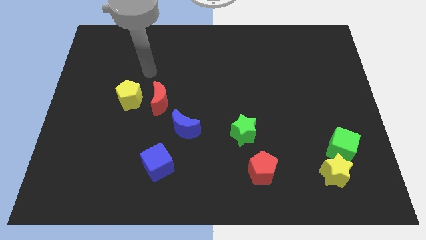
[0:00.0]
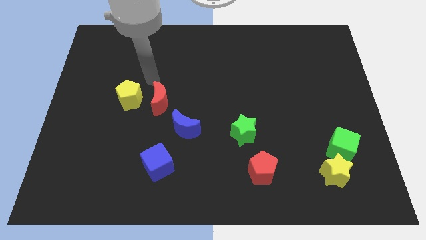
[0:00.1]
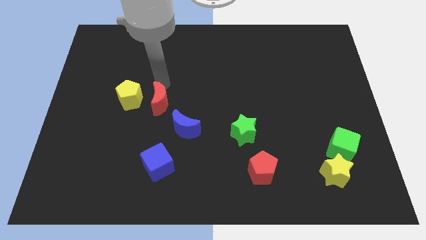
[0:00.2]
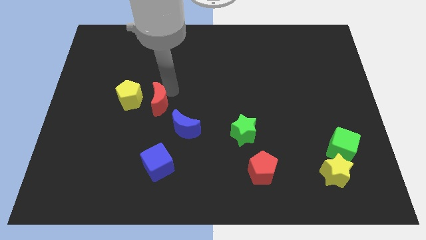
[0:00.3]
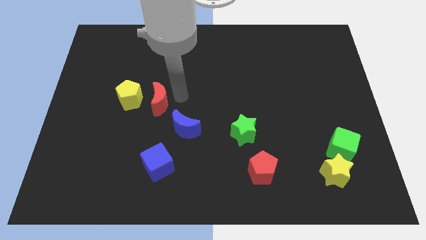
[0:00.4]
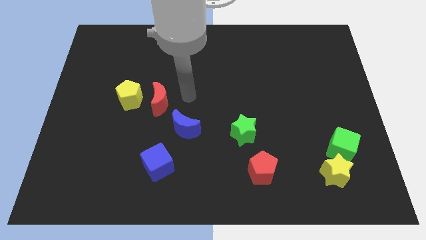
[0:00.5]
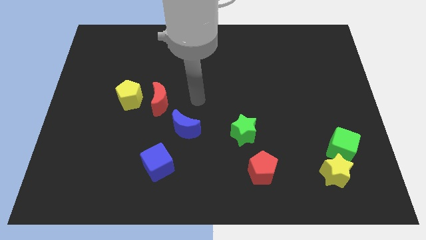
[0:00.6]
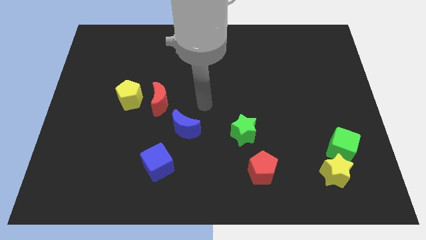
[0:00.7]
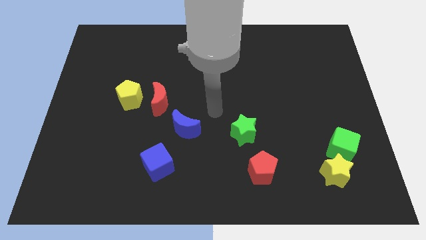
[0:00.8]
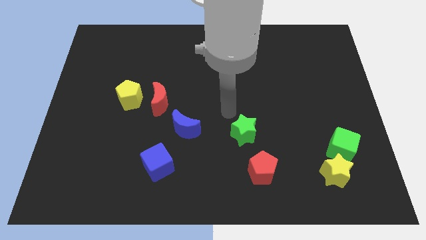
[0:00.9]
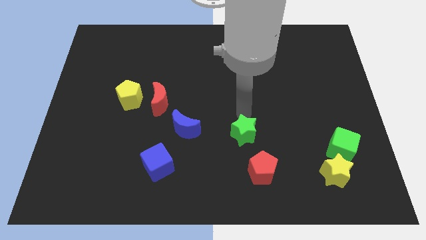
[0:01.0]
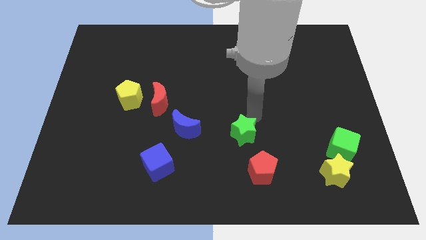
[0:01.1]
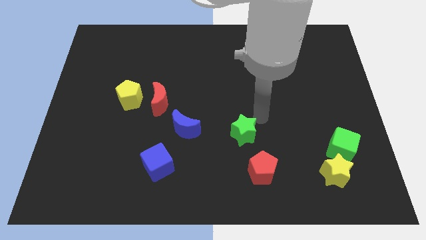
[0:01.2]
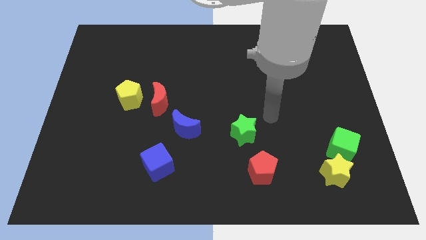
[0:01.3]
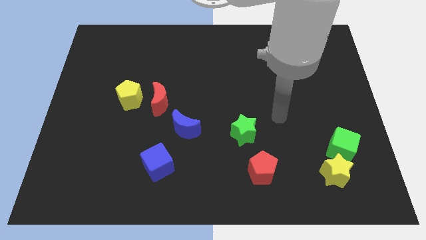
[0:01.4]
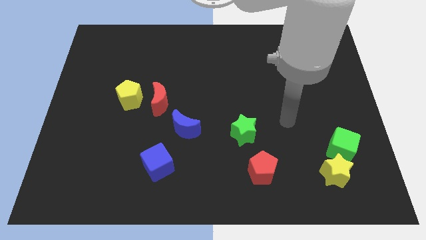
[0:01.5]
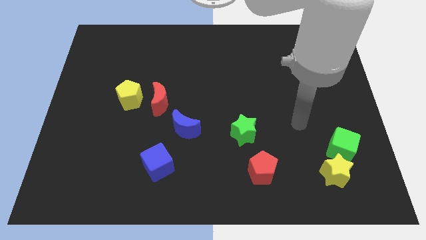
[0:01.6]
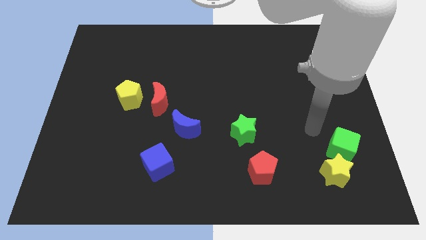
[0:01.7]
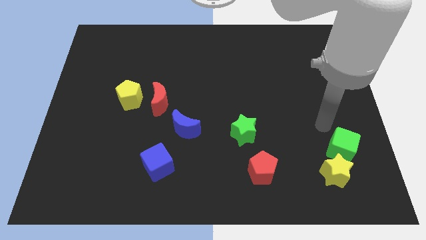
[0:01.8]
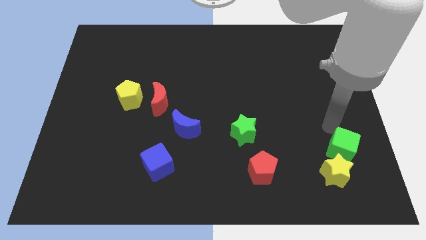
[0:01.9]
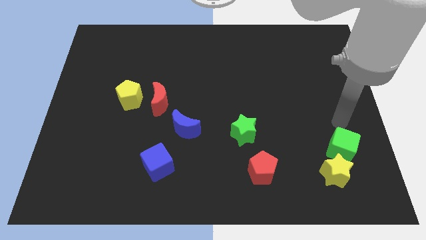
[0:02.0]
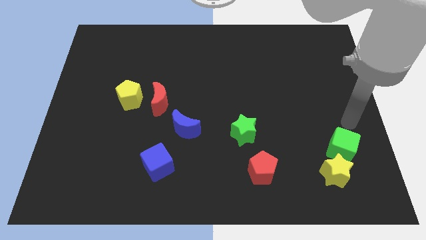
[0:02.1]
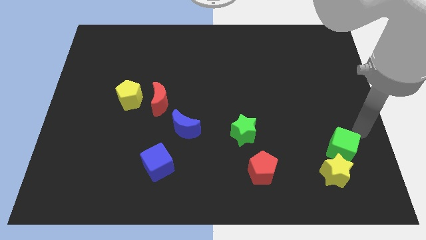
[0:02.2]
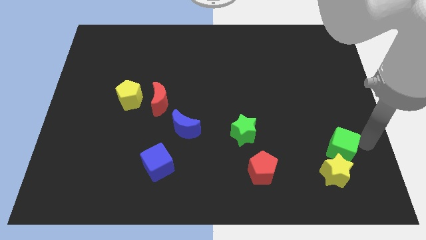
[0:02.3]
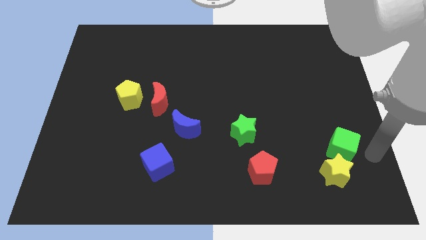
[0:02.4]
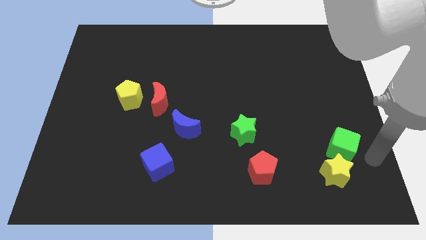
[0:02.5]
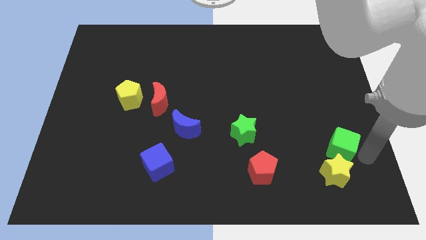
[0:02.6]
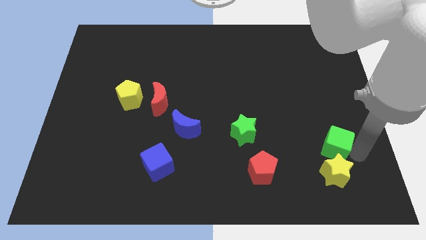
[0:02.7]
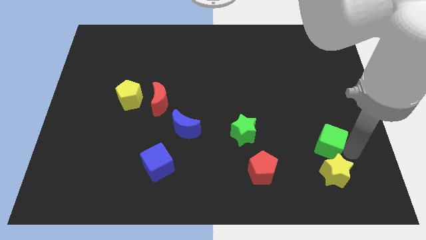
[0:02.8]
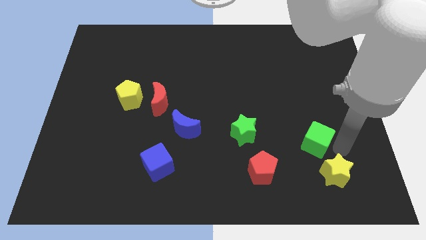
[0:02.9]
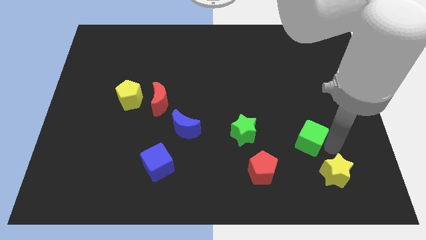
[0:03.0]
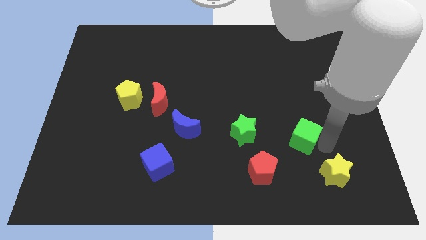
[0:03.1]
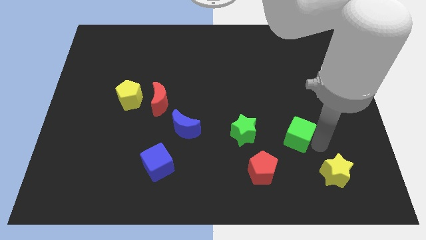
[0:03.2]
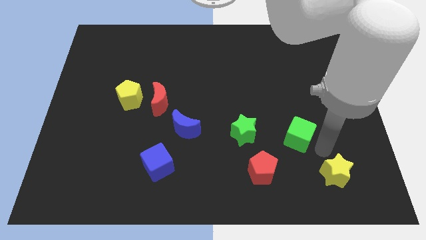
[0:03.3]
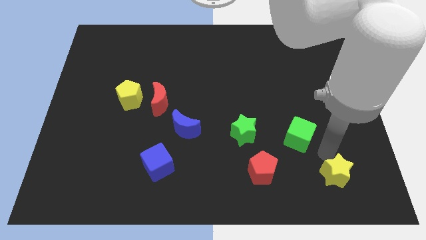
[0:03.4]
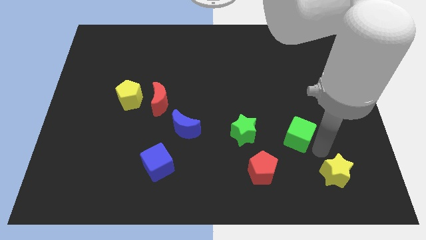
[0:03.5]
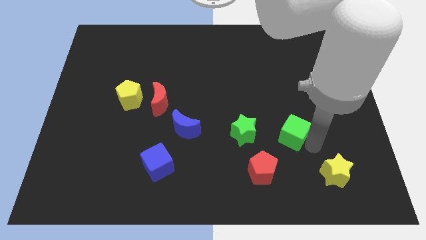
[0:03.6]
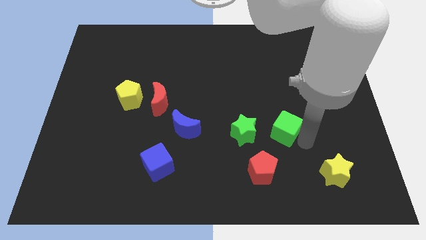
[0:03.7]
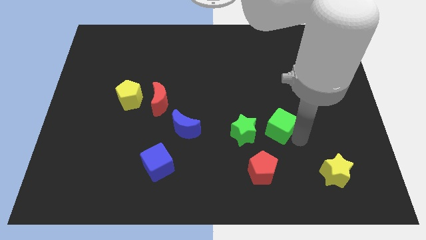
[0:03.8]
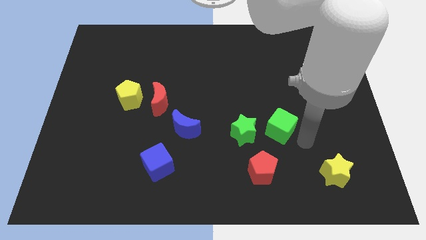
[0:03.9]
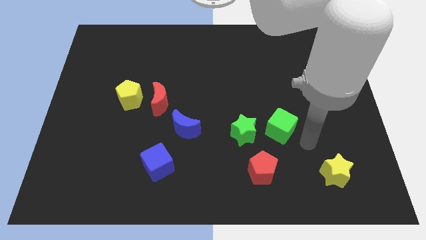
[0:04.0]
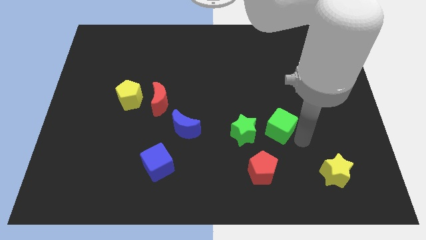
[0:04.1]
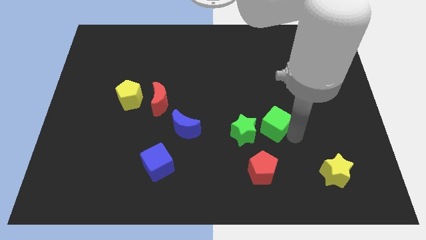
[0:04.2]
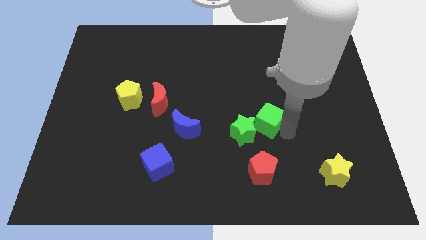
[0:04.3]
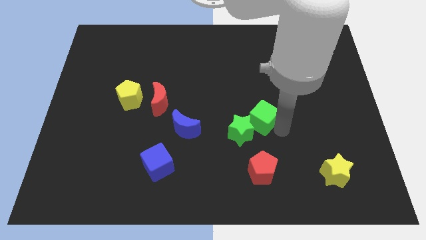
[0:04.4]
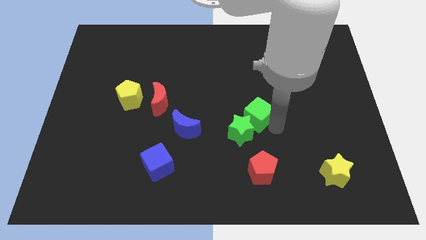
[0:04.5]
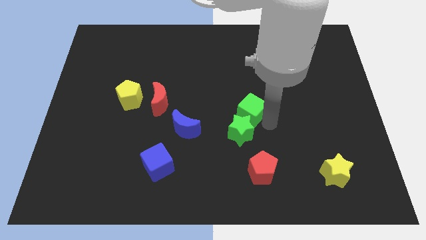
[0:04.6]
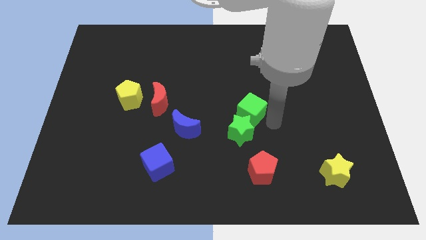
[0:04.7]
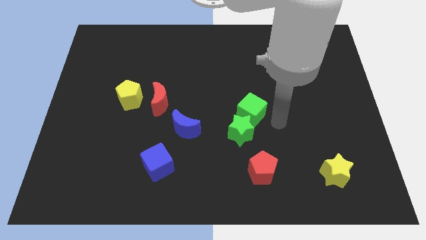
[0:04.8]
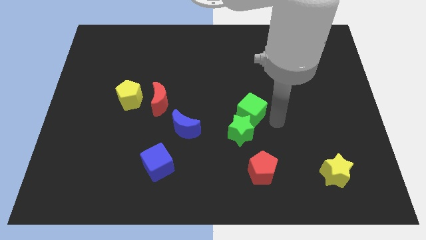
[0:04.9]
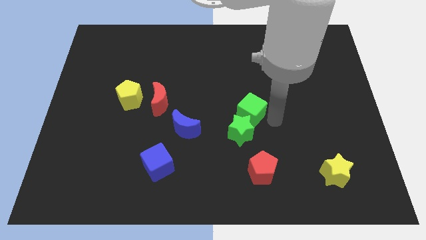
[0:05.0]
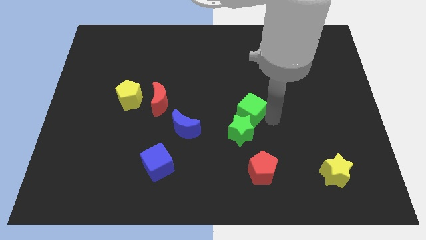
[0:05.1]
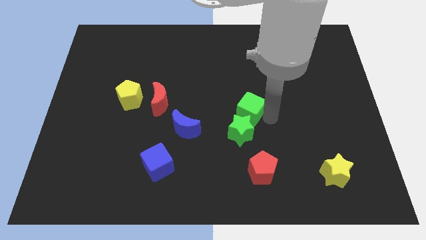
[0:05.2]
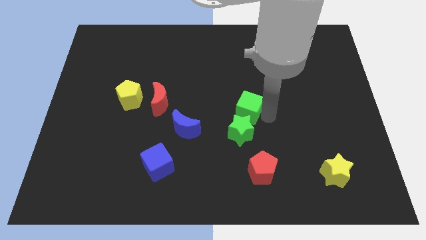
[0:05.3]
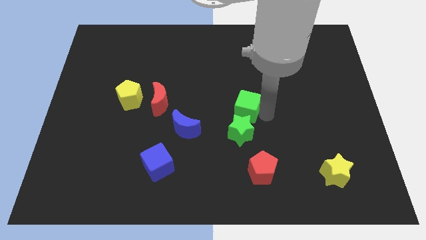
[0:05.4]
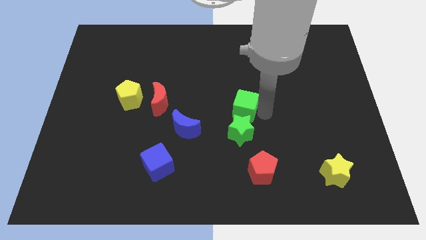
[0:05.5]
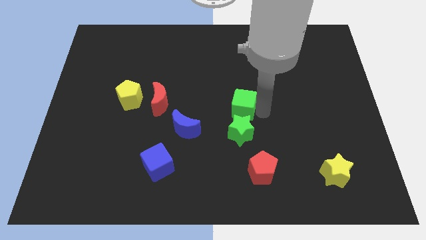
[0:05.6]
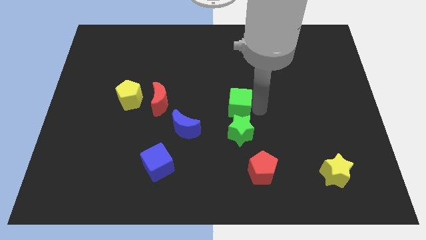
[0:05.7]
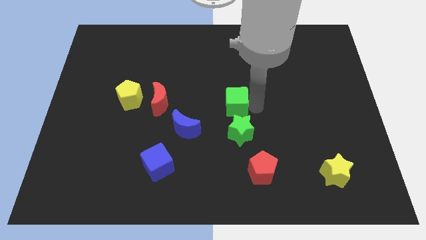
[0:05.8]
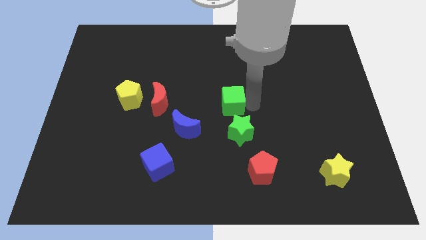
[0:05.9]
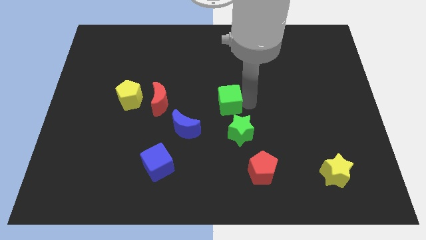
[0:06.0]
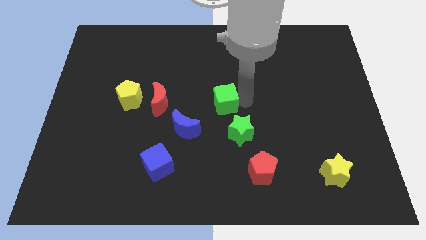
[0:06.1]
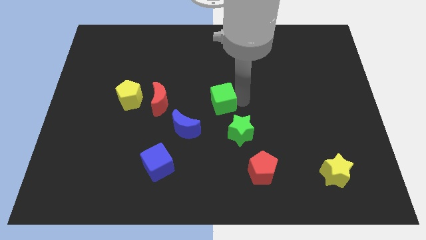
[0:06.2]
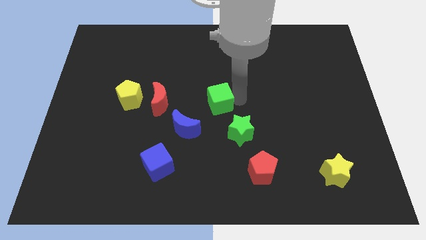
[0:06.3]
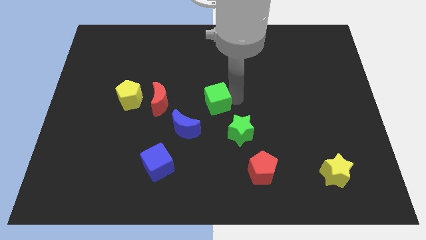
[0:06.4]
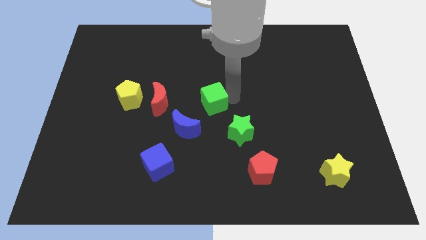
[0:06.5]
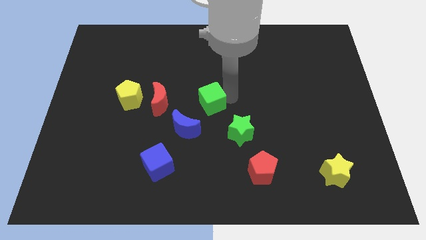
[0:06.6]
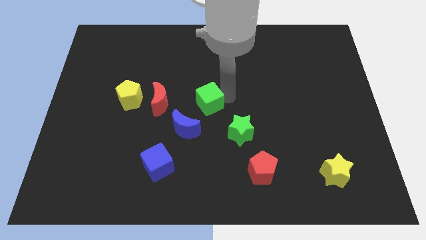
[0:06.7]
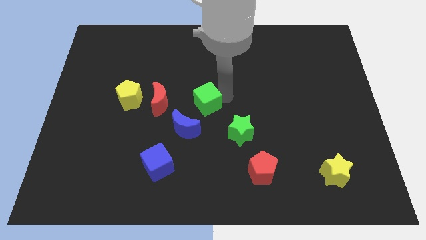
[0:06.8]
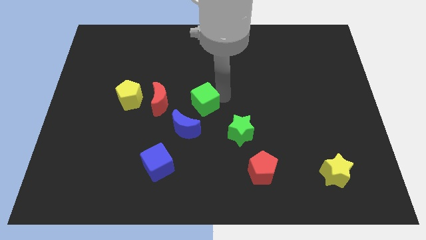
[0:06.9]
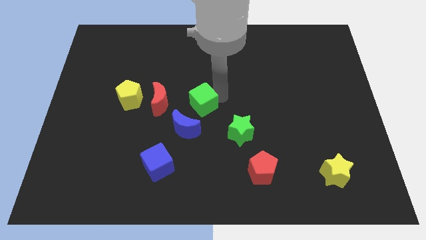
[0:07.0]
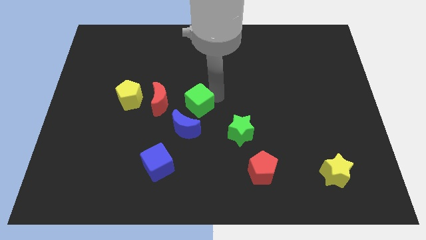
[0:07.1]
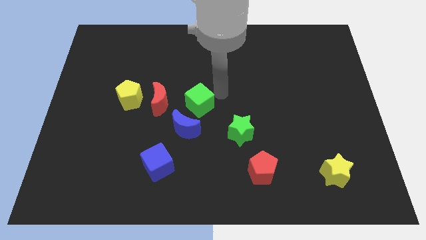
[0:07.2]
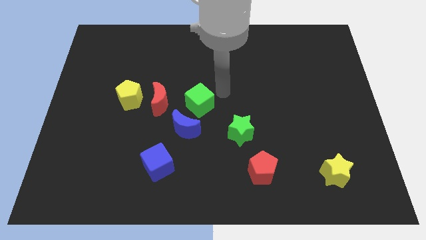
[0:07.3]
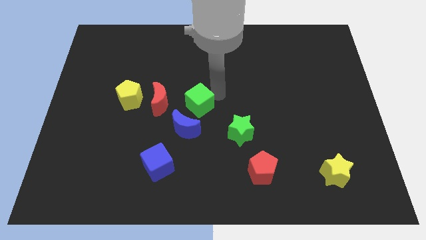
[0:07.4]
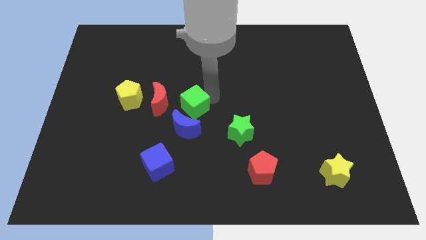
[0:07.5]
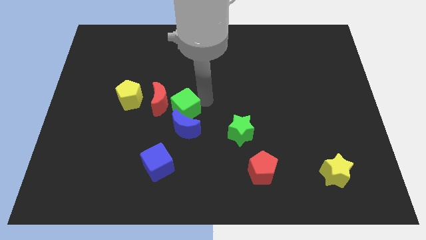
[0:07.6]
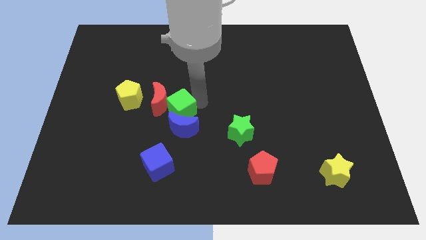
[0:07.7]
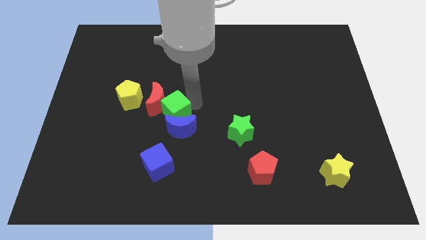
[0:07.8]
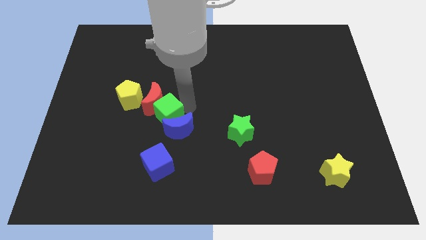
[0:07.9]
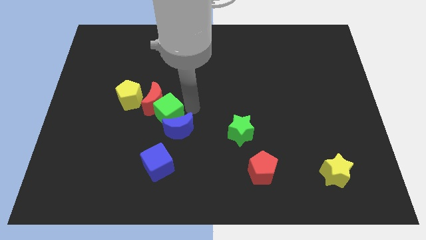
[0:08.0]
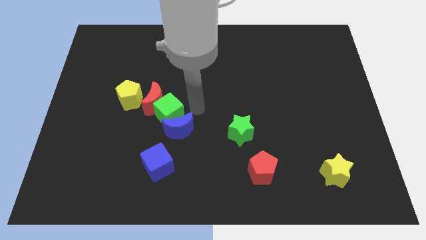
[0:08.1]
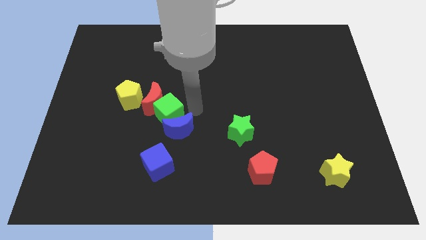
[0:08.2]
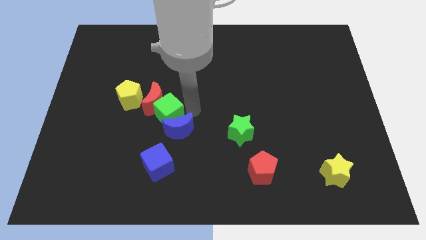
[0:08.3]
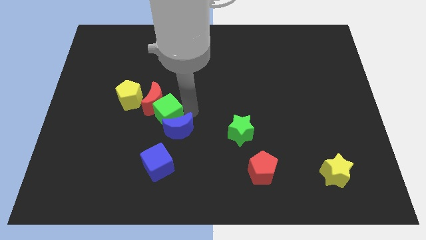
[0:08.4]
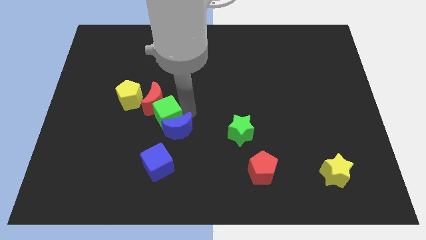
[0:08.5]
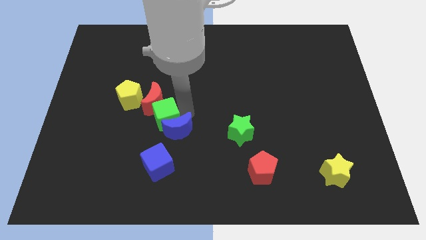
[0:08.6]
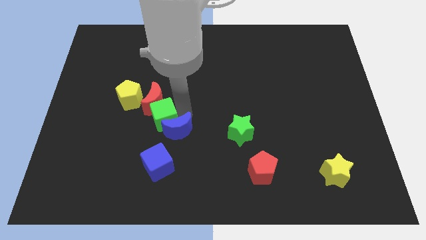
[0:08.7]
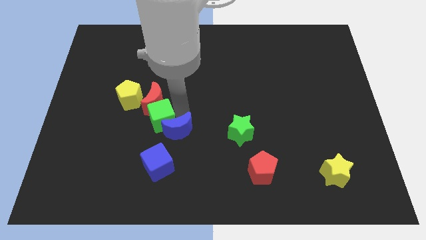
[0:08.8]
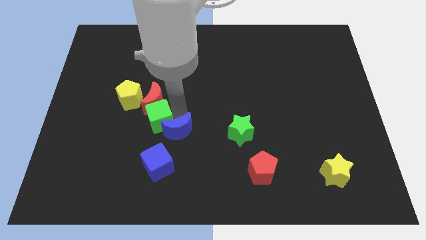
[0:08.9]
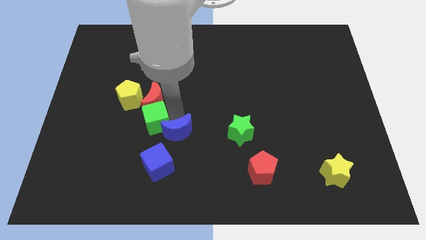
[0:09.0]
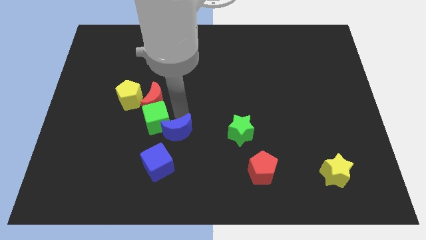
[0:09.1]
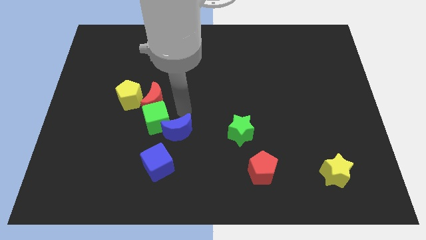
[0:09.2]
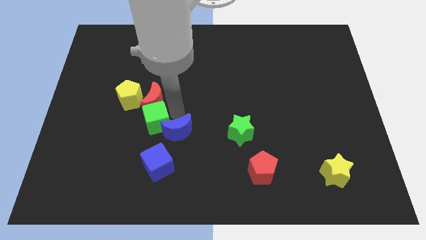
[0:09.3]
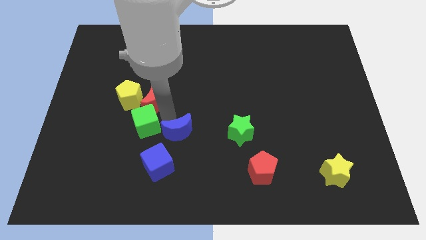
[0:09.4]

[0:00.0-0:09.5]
slide the green cube to the bottom side of the yellow pentagon
